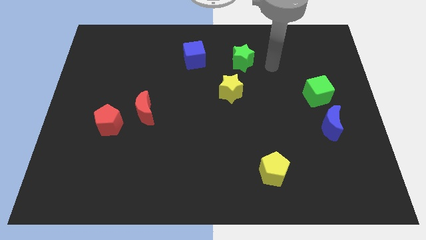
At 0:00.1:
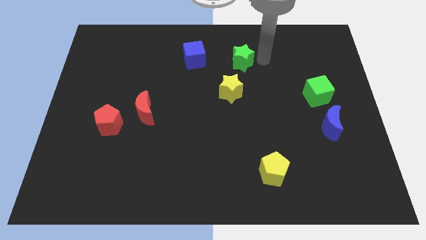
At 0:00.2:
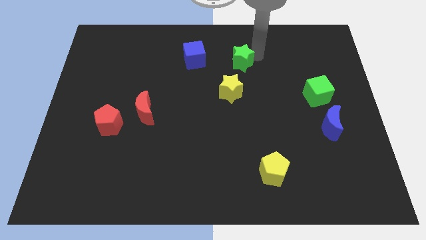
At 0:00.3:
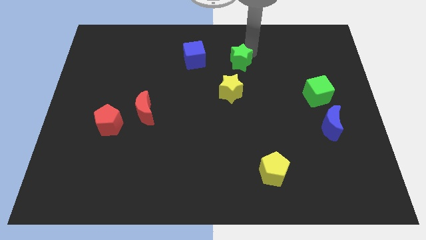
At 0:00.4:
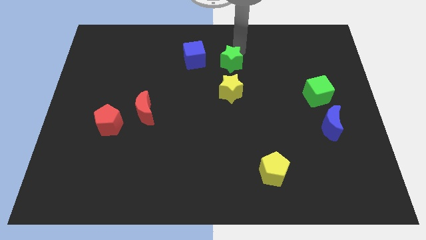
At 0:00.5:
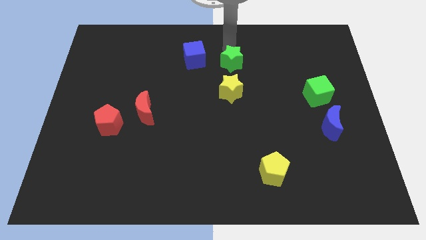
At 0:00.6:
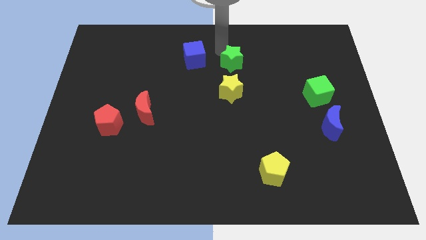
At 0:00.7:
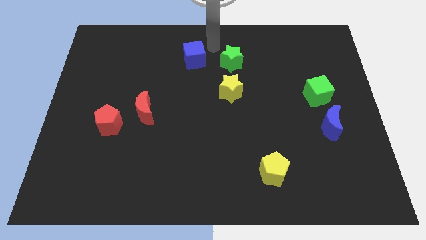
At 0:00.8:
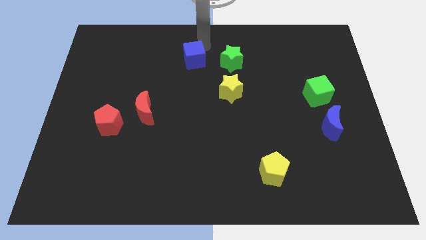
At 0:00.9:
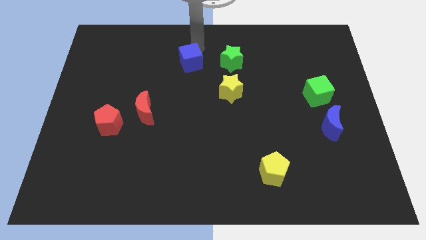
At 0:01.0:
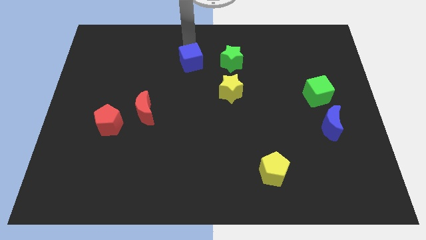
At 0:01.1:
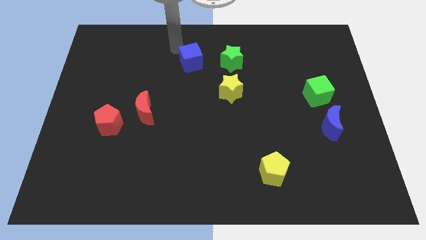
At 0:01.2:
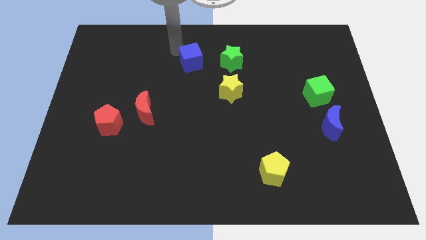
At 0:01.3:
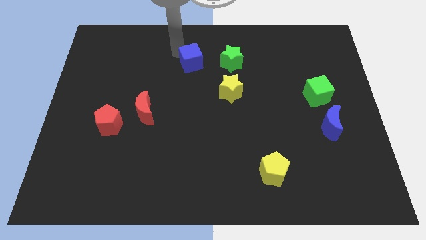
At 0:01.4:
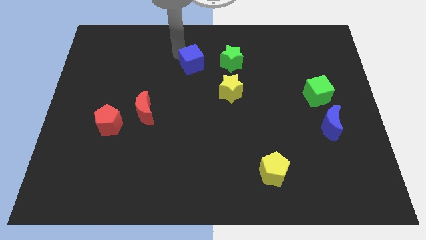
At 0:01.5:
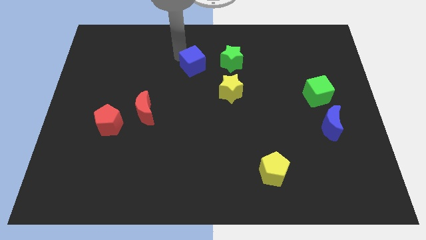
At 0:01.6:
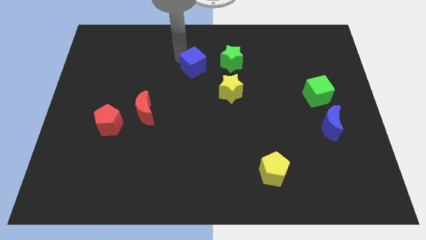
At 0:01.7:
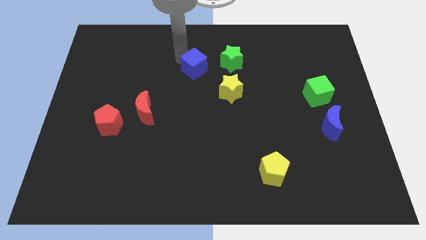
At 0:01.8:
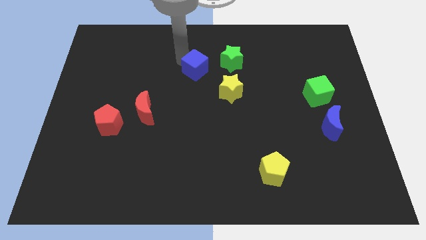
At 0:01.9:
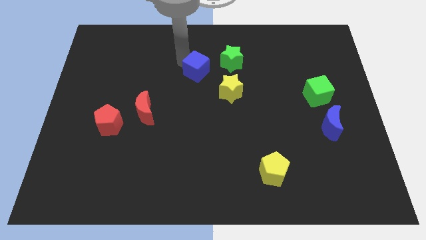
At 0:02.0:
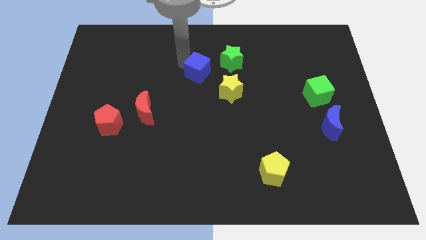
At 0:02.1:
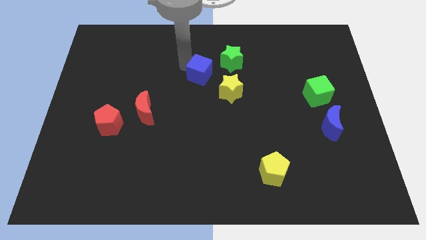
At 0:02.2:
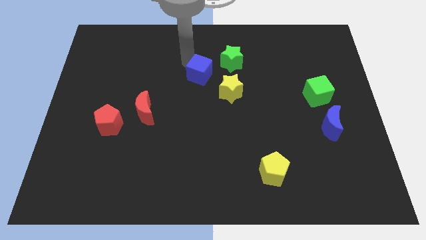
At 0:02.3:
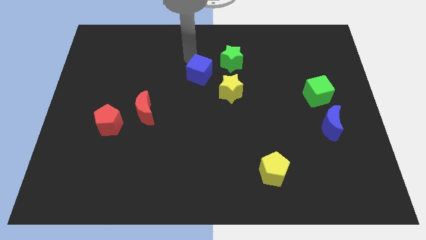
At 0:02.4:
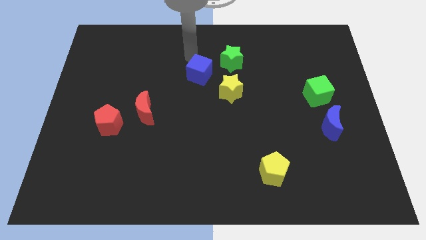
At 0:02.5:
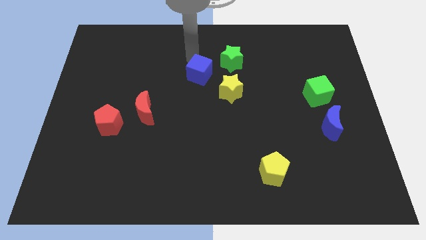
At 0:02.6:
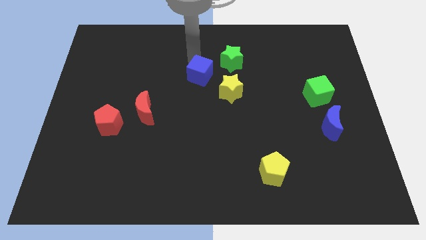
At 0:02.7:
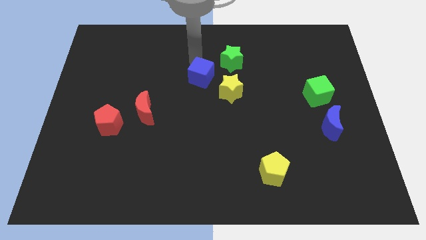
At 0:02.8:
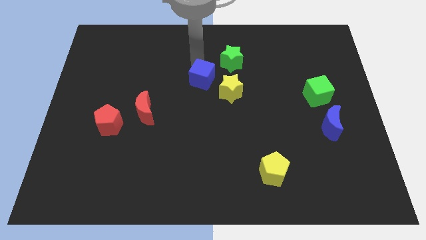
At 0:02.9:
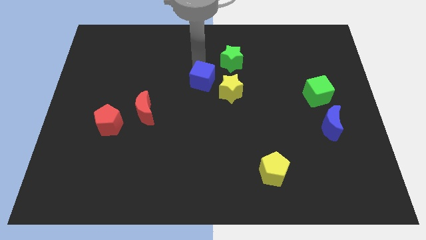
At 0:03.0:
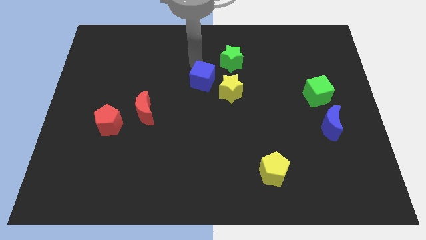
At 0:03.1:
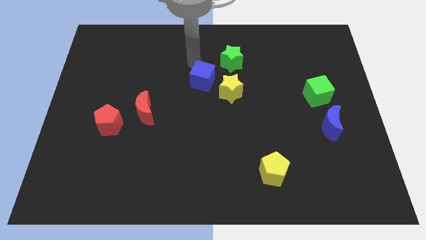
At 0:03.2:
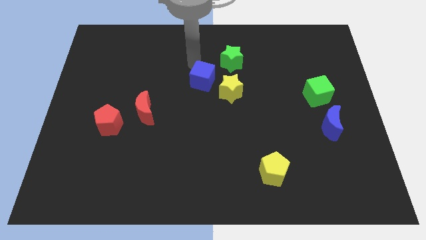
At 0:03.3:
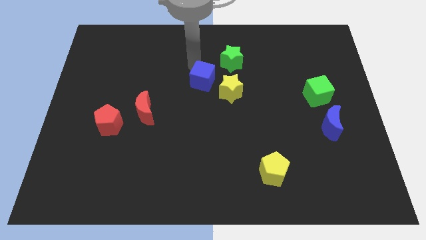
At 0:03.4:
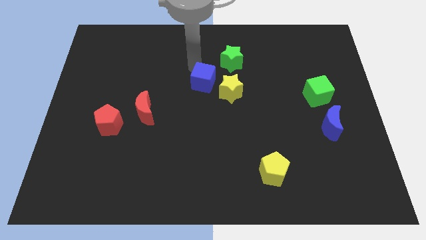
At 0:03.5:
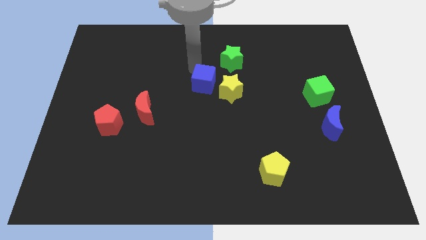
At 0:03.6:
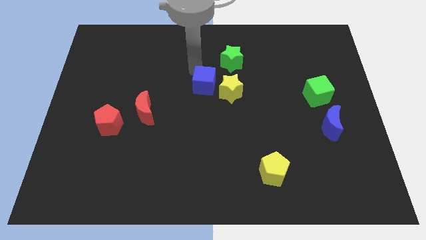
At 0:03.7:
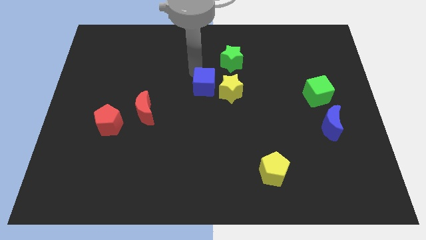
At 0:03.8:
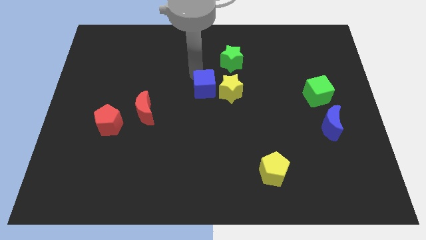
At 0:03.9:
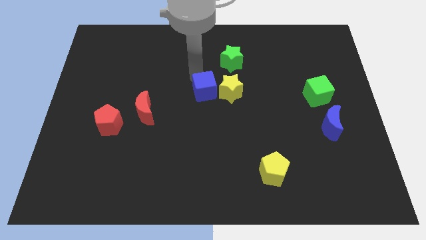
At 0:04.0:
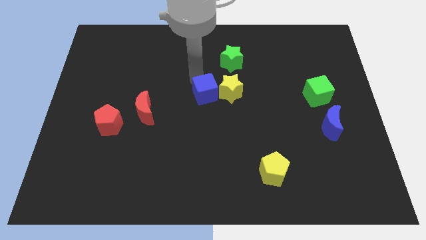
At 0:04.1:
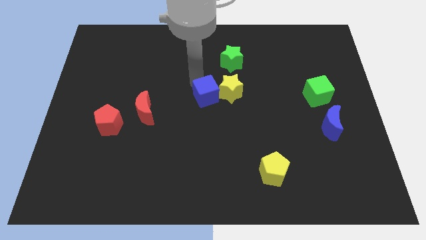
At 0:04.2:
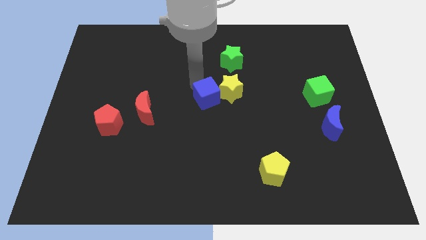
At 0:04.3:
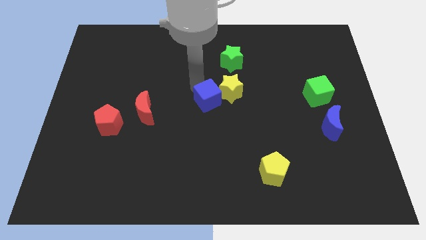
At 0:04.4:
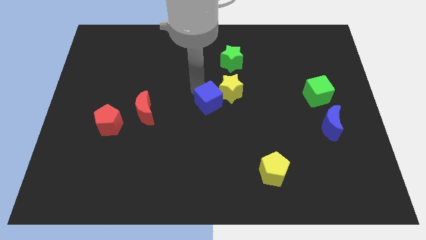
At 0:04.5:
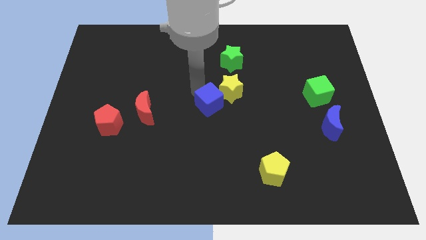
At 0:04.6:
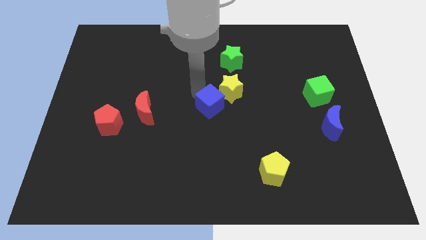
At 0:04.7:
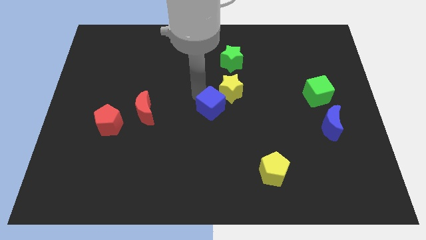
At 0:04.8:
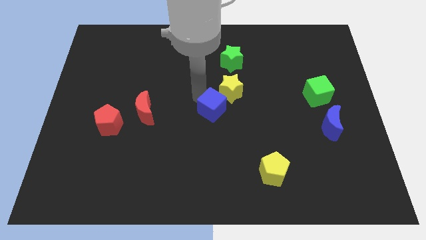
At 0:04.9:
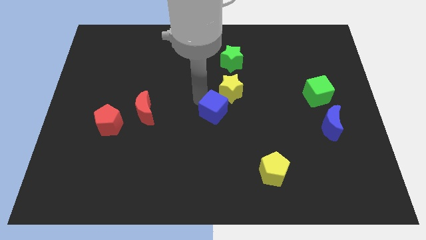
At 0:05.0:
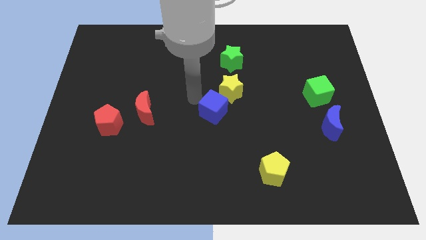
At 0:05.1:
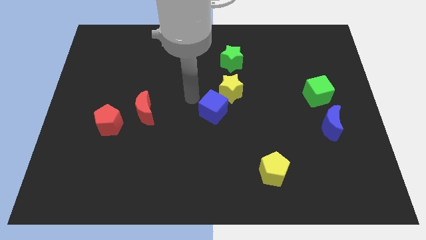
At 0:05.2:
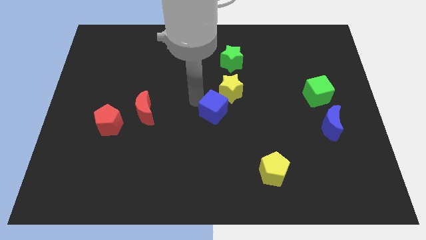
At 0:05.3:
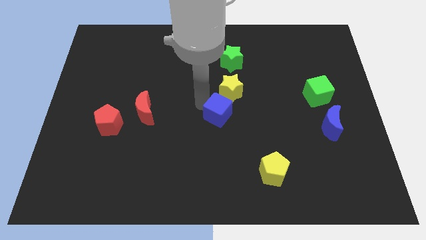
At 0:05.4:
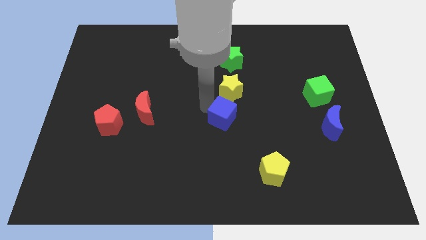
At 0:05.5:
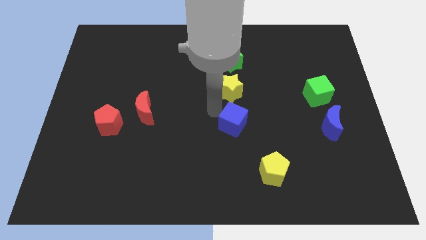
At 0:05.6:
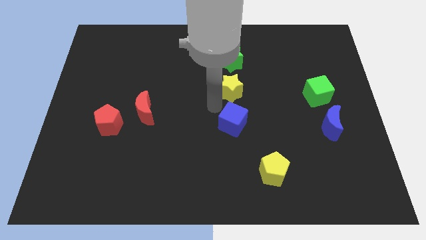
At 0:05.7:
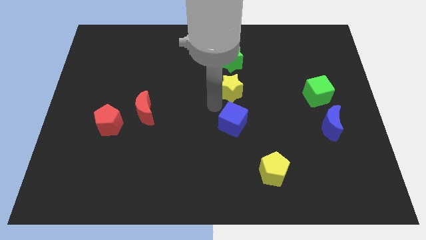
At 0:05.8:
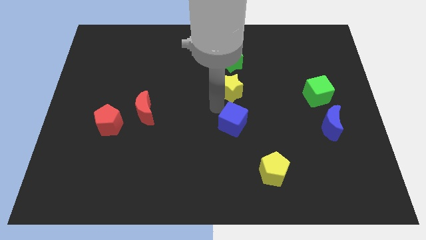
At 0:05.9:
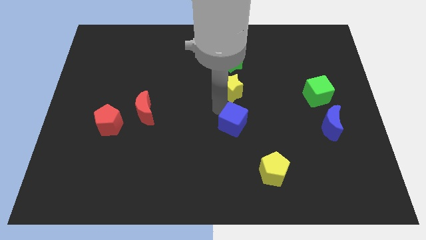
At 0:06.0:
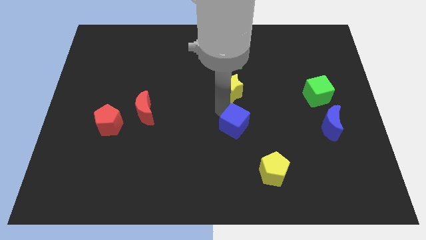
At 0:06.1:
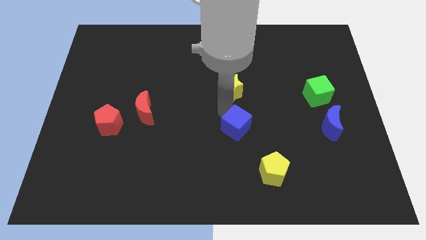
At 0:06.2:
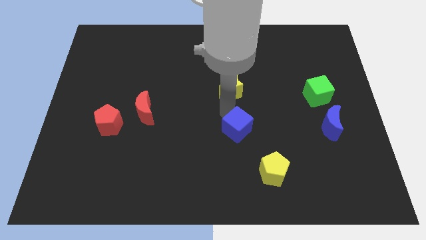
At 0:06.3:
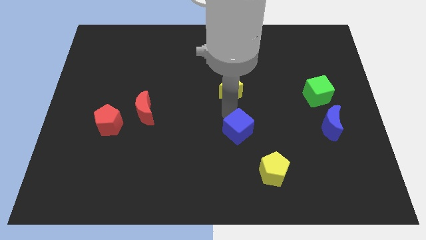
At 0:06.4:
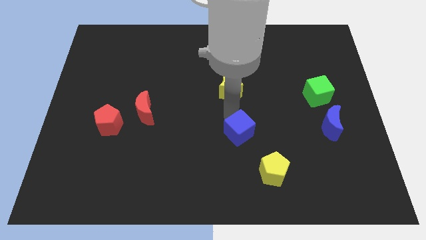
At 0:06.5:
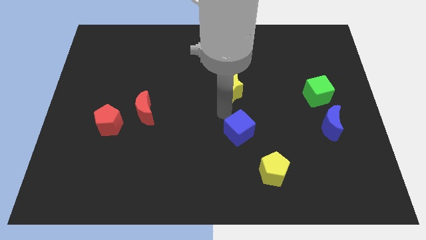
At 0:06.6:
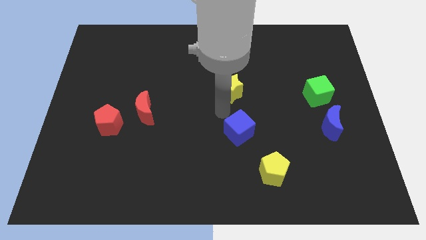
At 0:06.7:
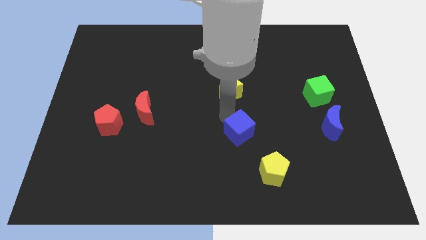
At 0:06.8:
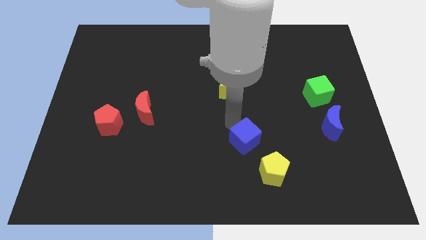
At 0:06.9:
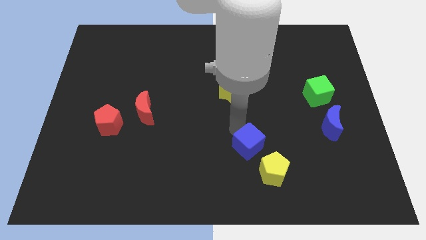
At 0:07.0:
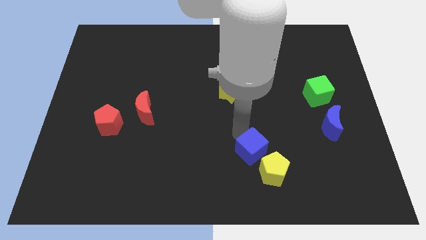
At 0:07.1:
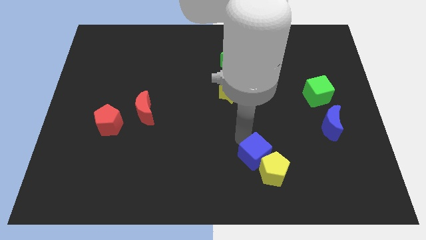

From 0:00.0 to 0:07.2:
move the blue cube to the yellow pentagon

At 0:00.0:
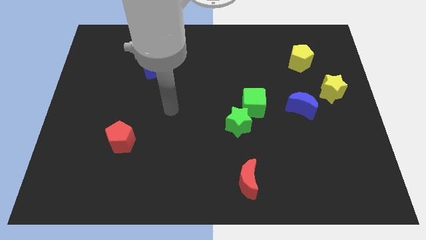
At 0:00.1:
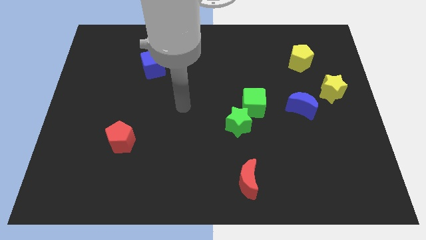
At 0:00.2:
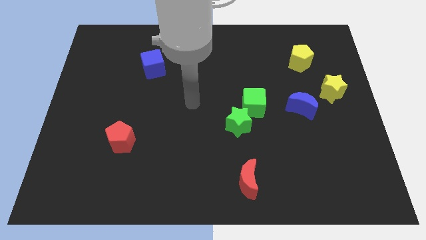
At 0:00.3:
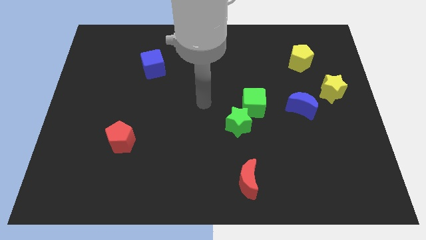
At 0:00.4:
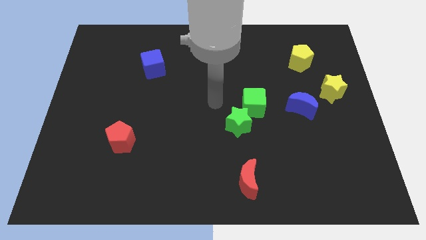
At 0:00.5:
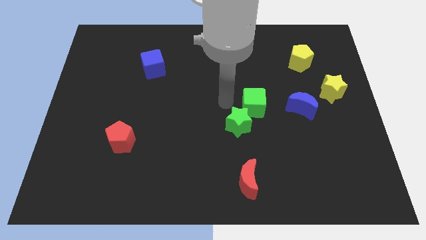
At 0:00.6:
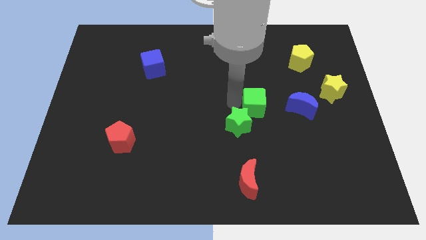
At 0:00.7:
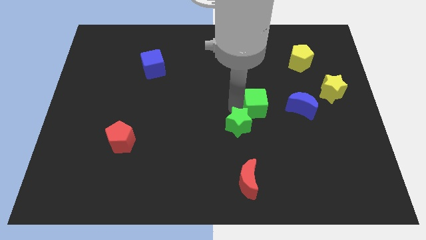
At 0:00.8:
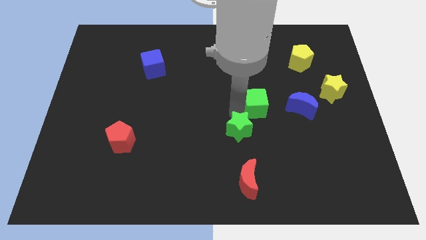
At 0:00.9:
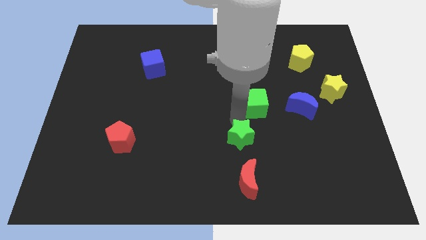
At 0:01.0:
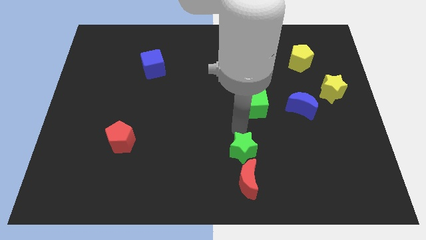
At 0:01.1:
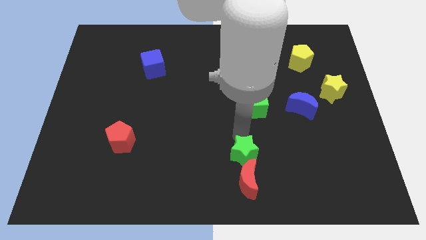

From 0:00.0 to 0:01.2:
slide the green star close to the red moon
